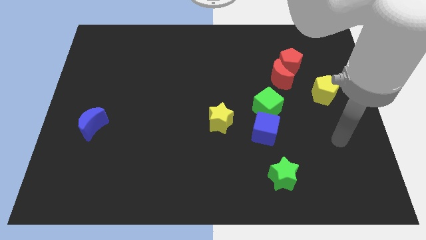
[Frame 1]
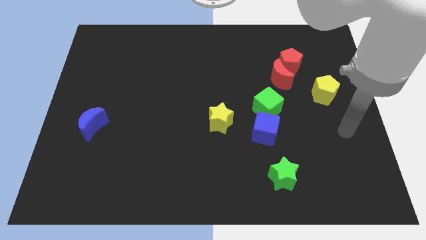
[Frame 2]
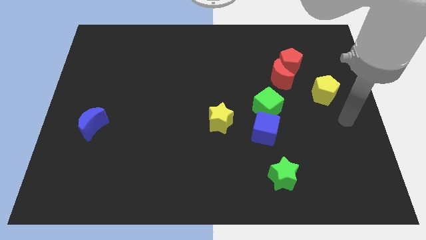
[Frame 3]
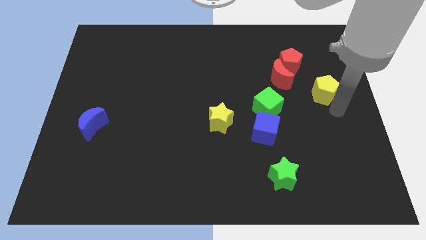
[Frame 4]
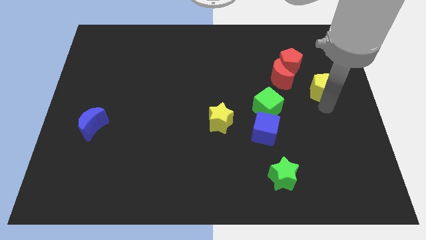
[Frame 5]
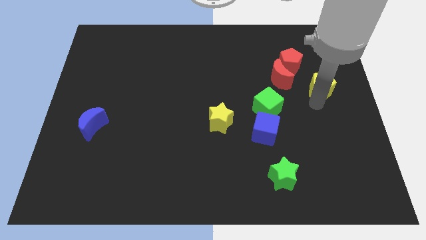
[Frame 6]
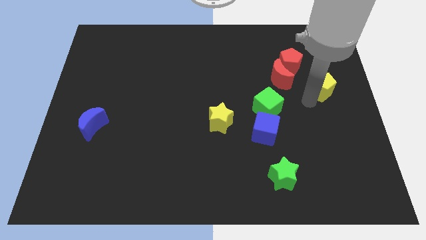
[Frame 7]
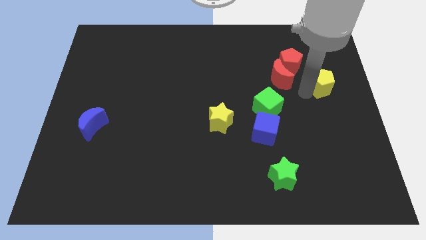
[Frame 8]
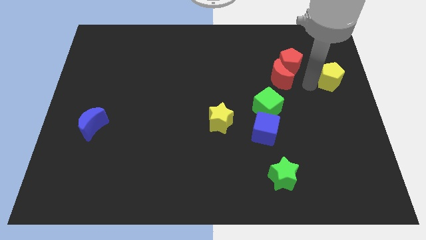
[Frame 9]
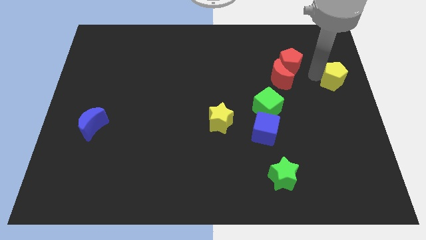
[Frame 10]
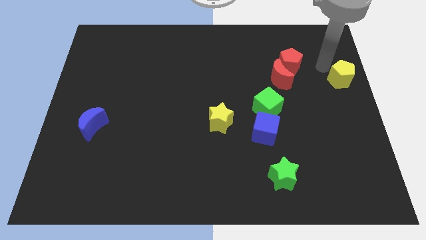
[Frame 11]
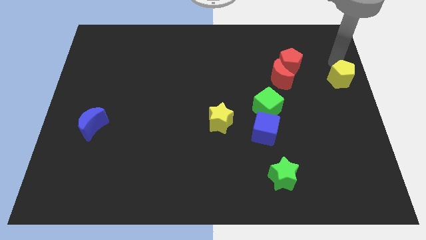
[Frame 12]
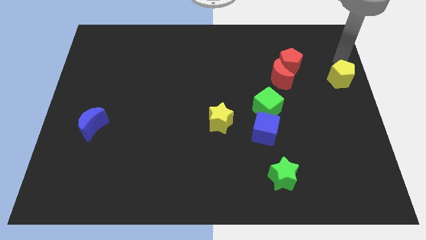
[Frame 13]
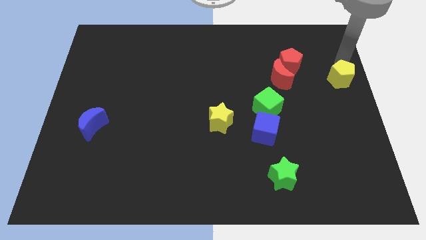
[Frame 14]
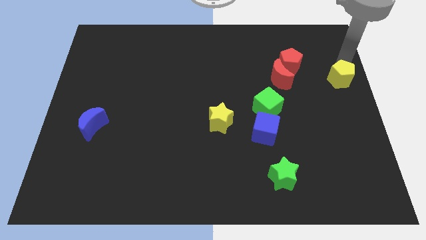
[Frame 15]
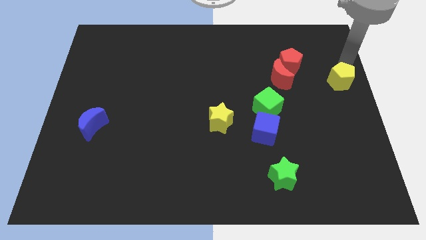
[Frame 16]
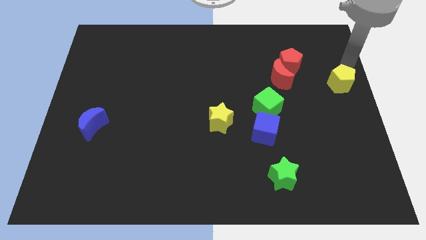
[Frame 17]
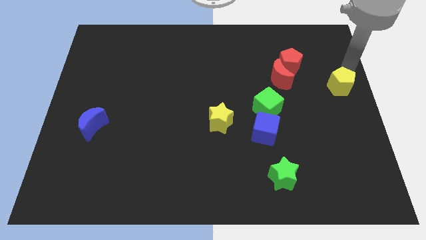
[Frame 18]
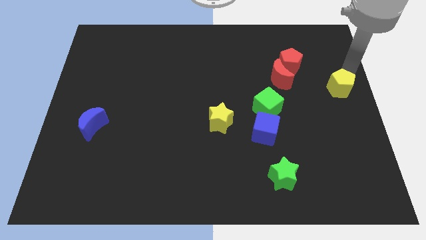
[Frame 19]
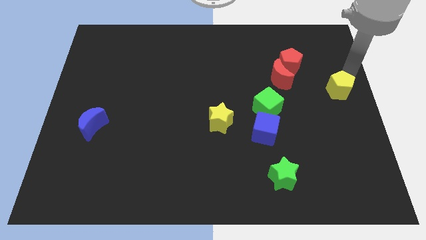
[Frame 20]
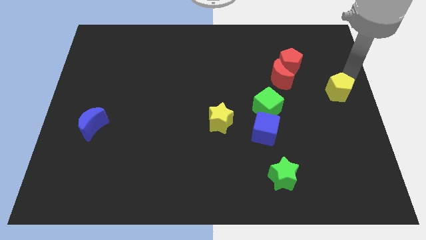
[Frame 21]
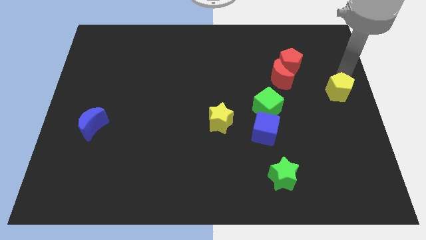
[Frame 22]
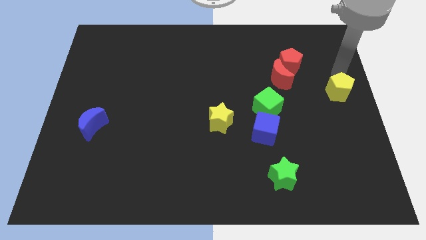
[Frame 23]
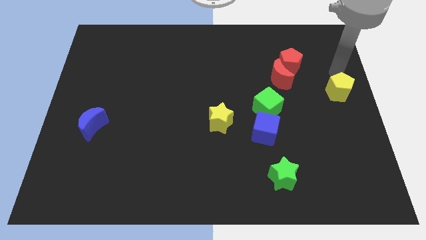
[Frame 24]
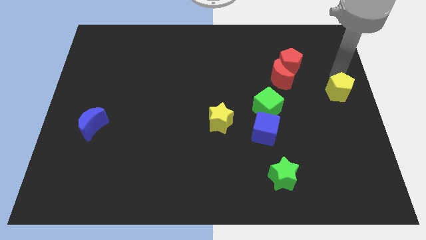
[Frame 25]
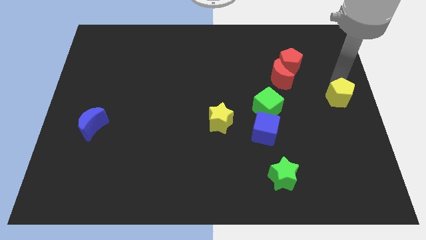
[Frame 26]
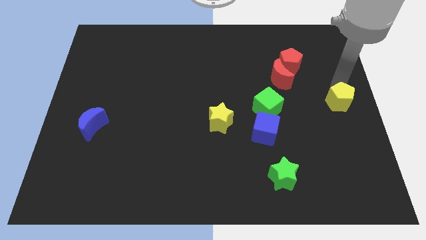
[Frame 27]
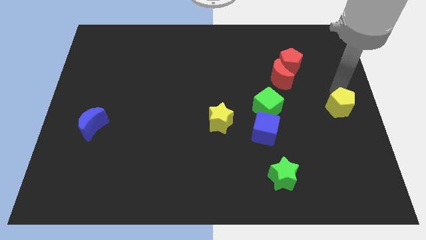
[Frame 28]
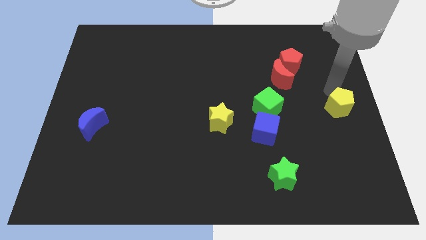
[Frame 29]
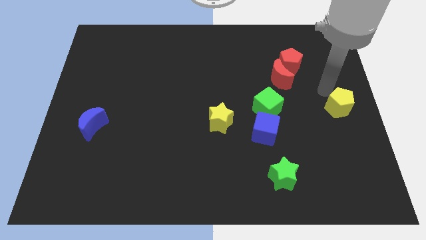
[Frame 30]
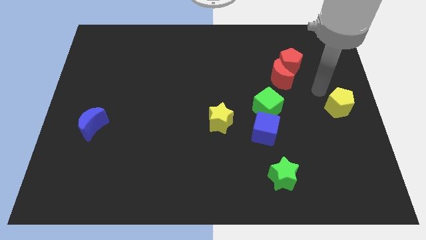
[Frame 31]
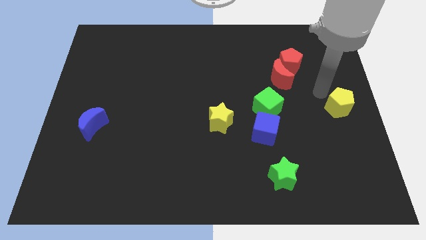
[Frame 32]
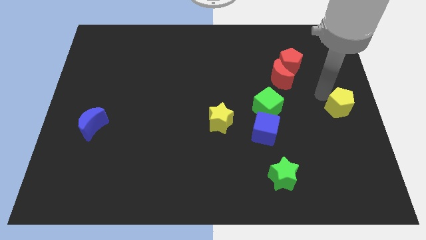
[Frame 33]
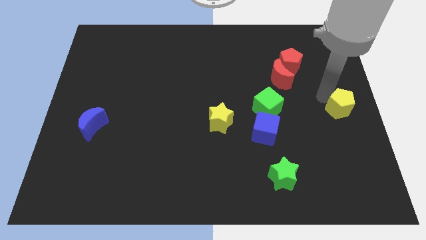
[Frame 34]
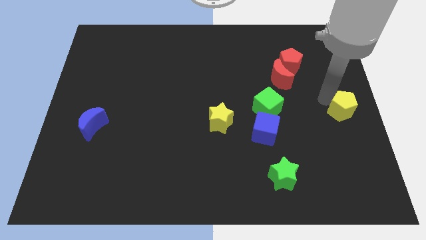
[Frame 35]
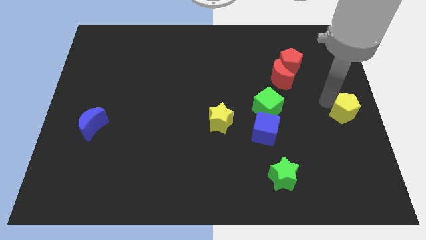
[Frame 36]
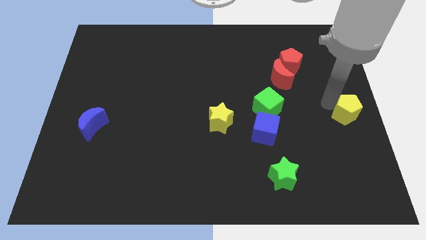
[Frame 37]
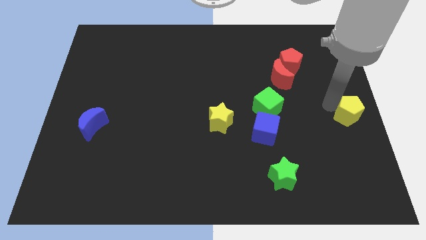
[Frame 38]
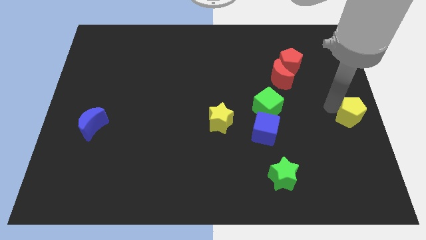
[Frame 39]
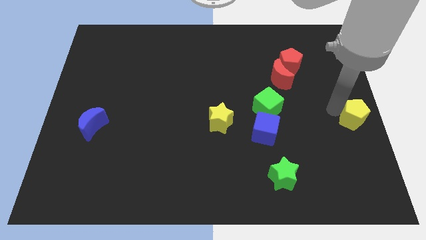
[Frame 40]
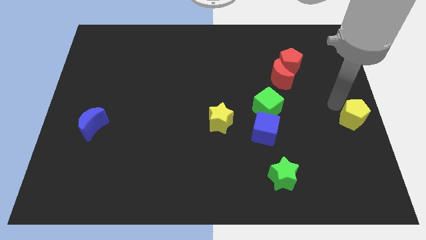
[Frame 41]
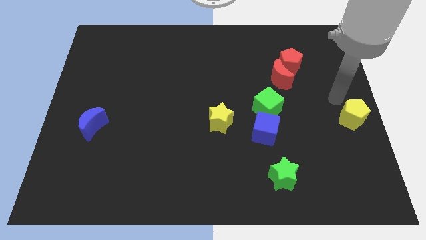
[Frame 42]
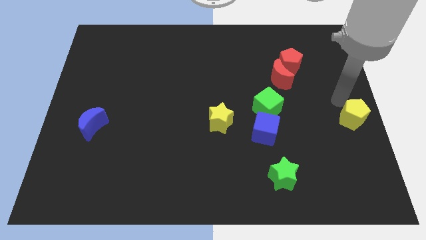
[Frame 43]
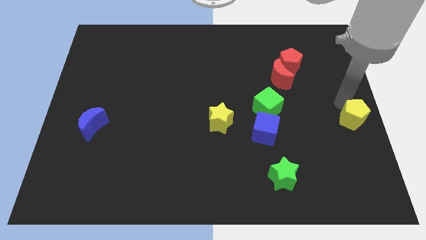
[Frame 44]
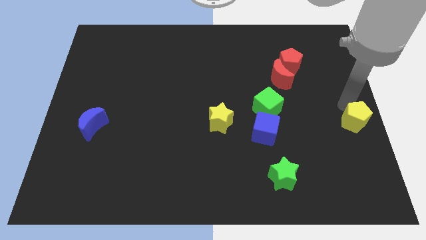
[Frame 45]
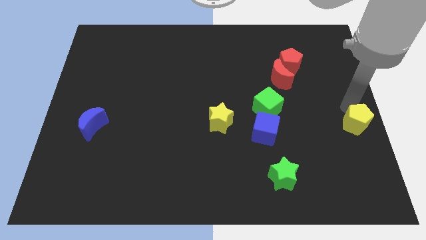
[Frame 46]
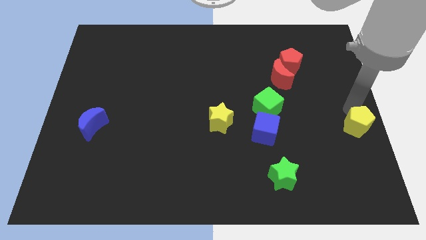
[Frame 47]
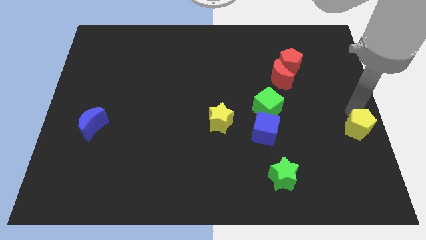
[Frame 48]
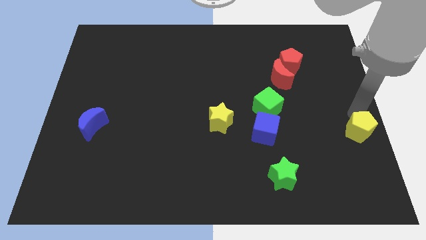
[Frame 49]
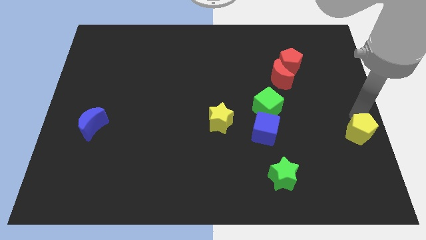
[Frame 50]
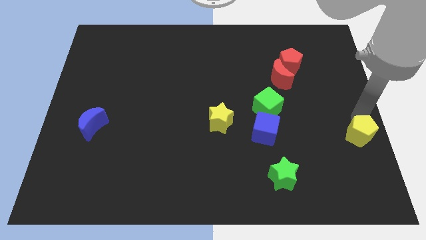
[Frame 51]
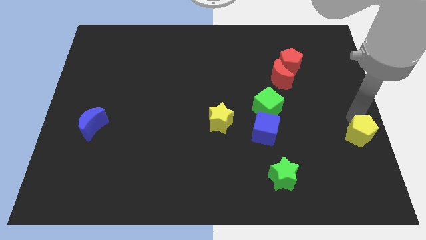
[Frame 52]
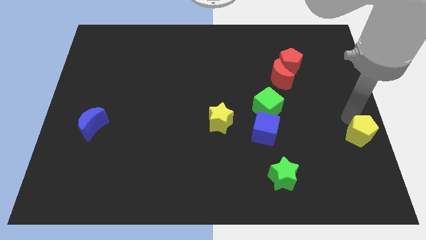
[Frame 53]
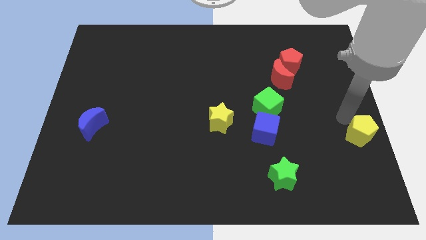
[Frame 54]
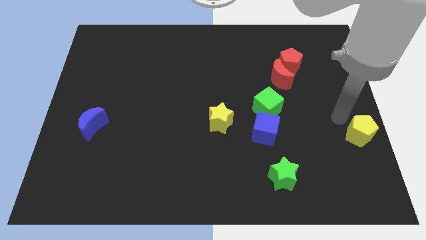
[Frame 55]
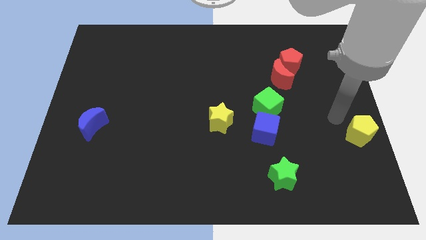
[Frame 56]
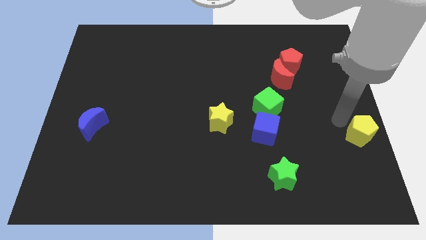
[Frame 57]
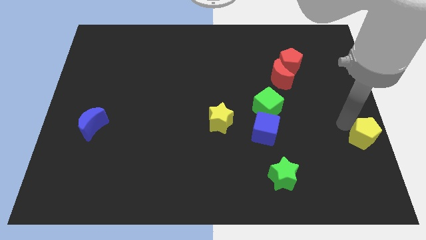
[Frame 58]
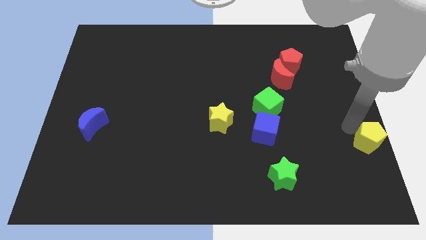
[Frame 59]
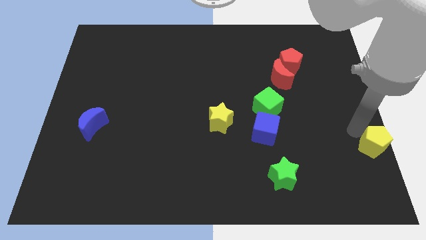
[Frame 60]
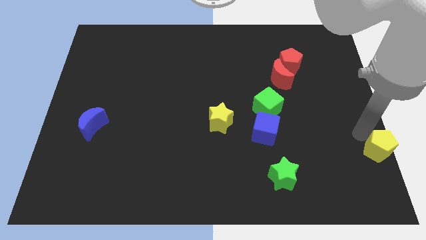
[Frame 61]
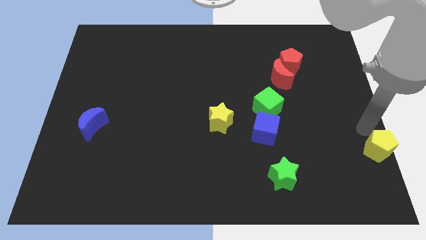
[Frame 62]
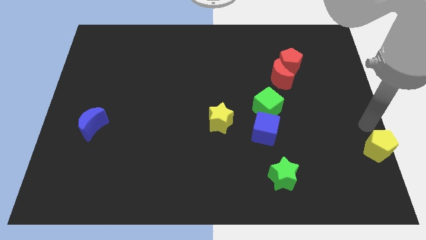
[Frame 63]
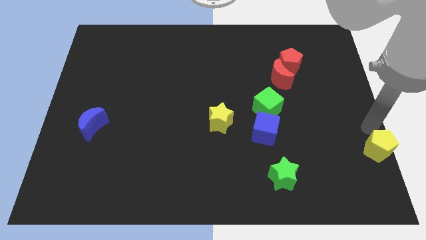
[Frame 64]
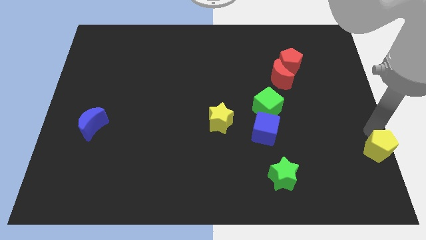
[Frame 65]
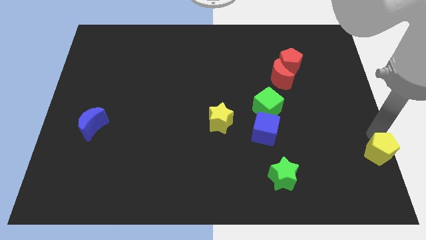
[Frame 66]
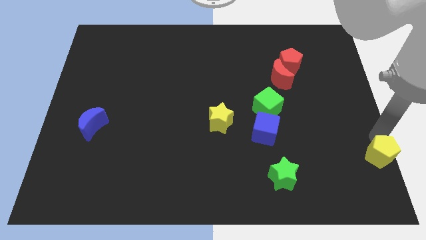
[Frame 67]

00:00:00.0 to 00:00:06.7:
put the yellow pentagon to the bottom right of the board
